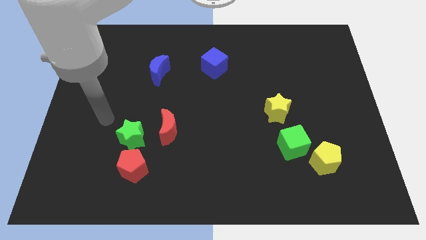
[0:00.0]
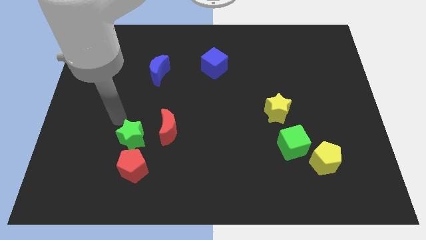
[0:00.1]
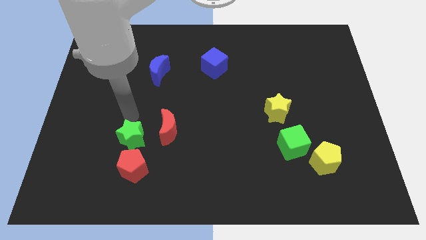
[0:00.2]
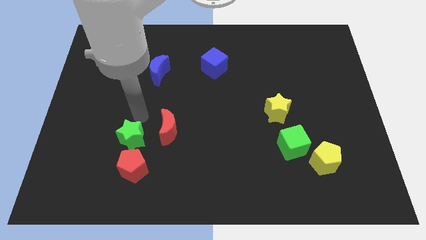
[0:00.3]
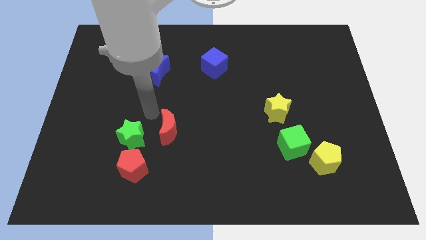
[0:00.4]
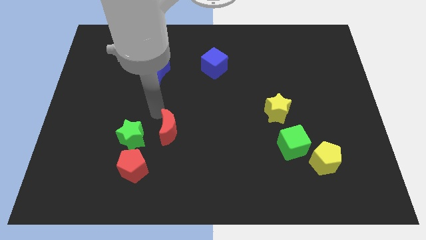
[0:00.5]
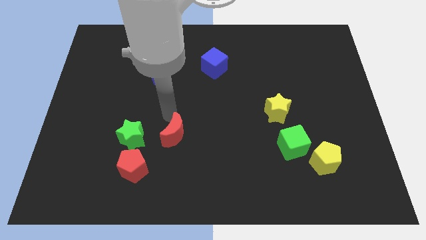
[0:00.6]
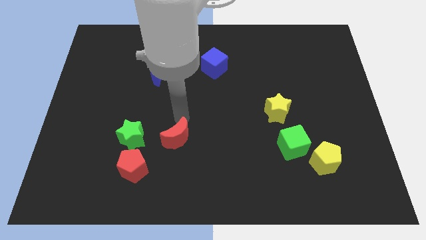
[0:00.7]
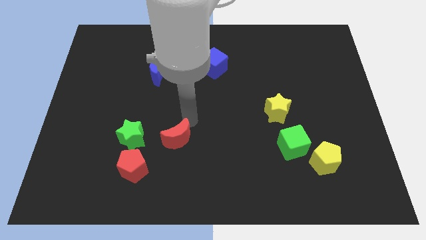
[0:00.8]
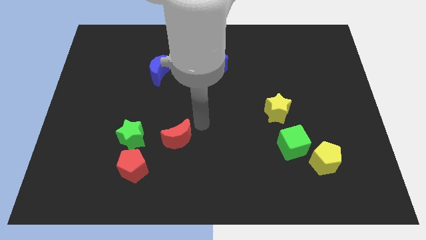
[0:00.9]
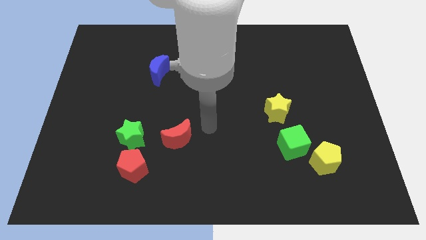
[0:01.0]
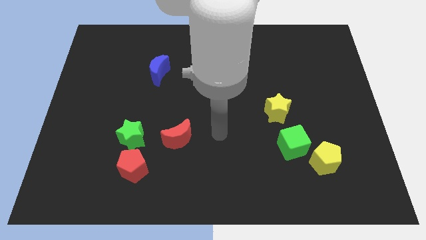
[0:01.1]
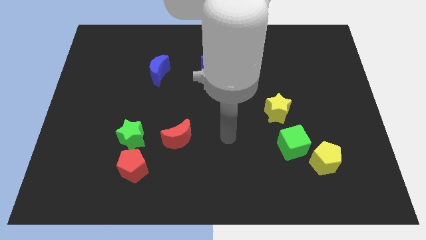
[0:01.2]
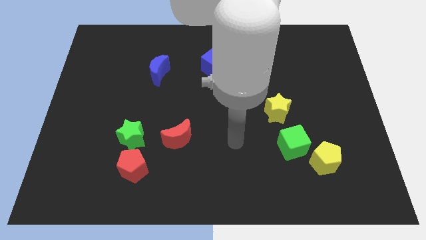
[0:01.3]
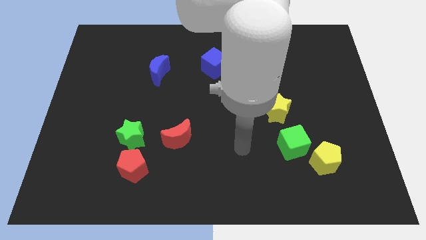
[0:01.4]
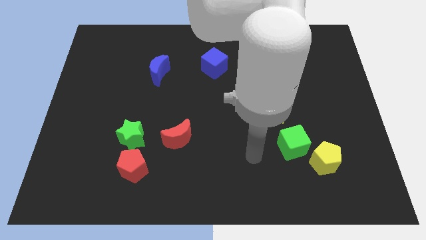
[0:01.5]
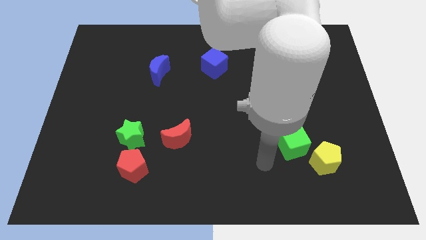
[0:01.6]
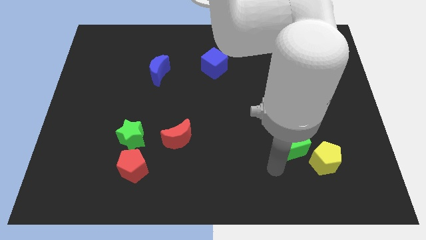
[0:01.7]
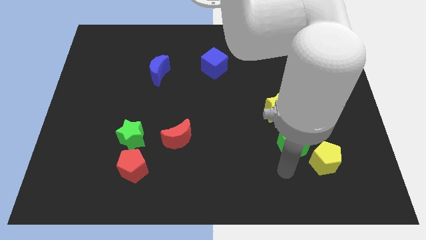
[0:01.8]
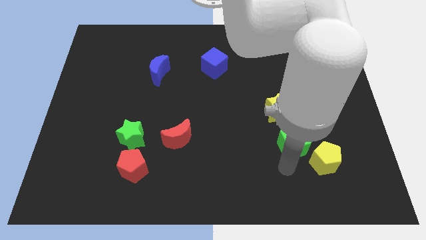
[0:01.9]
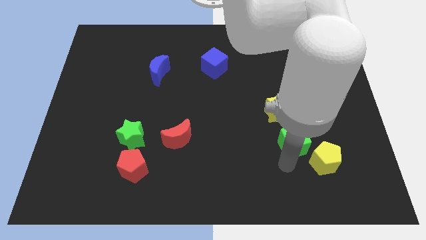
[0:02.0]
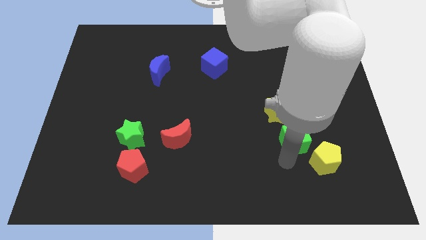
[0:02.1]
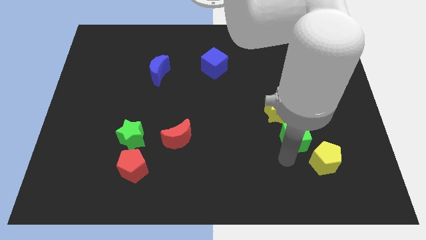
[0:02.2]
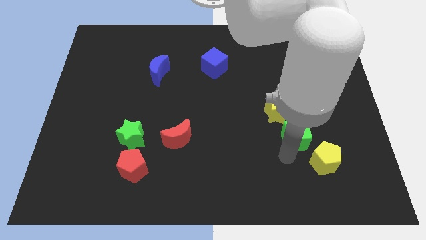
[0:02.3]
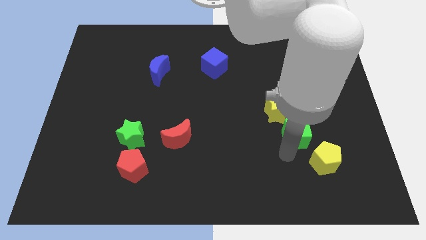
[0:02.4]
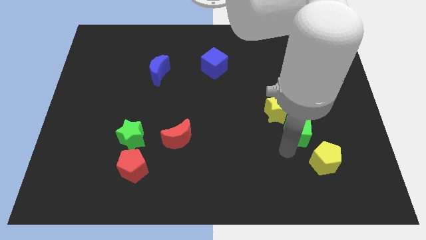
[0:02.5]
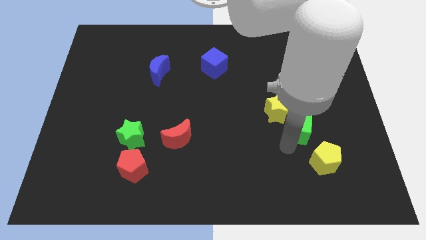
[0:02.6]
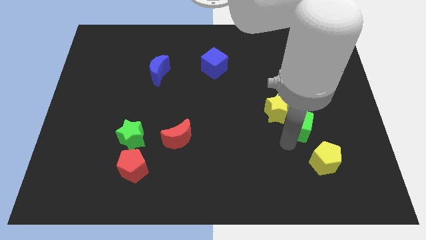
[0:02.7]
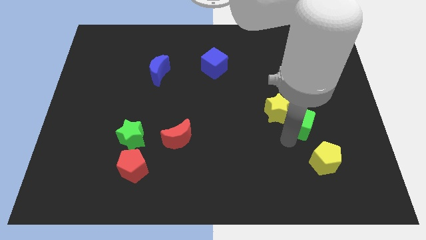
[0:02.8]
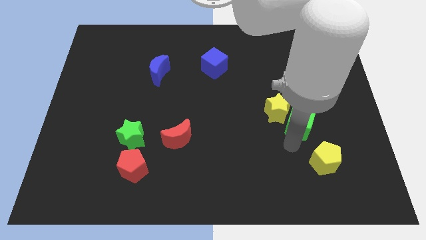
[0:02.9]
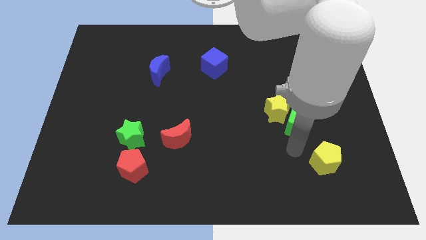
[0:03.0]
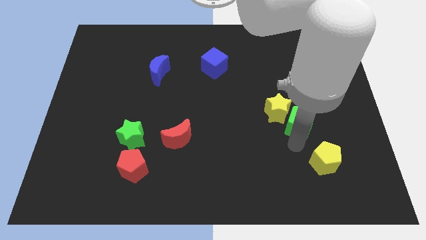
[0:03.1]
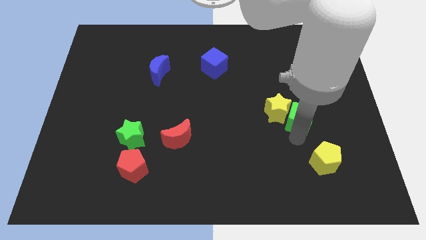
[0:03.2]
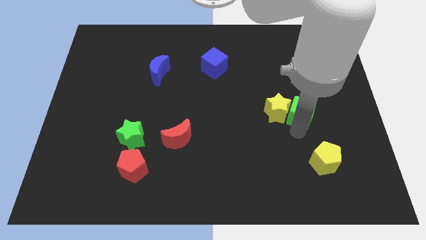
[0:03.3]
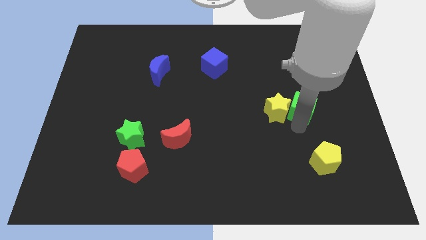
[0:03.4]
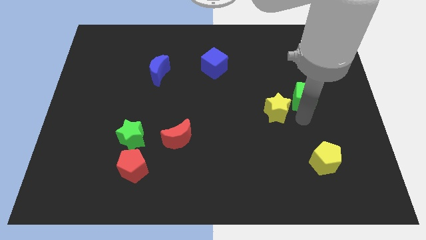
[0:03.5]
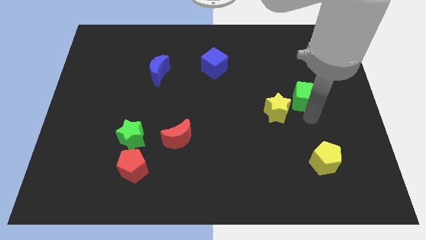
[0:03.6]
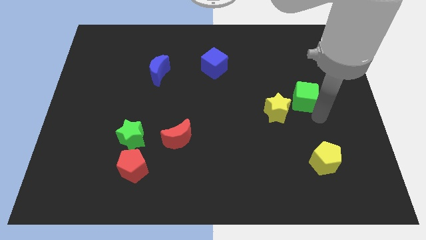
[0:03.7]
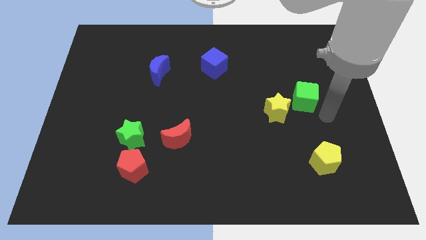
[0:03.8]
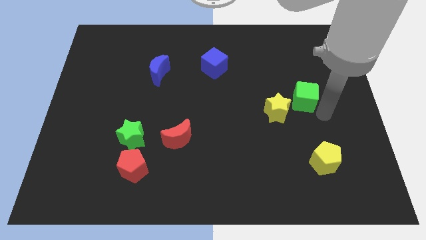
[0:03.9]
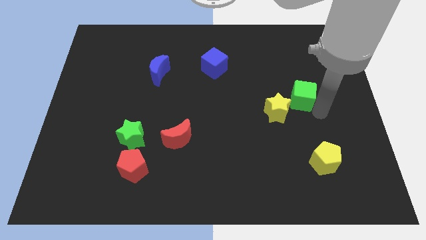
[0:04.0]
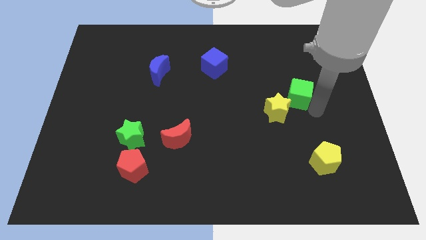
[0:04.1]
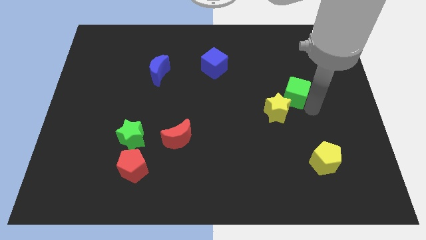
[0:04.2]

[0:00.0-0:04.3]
slide the green cube to the top of the yellow star

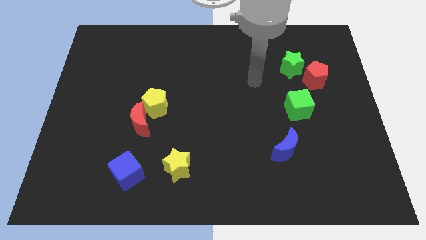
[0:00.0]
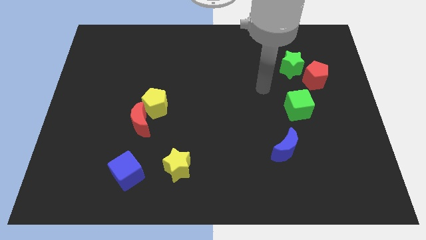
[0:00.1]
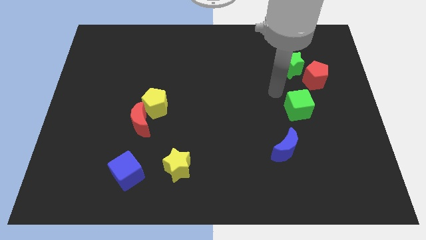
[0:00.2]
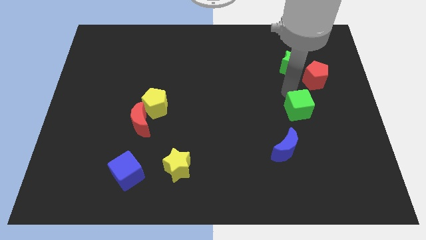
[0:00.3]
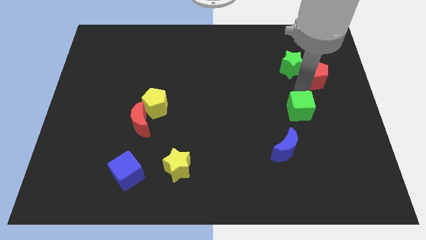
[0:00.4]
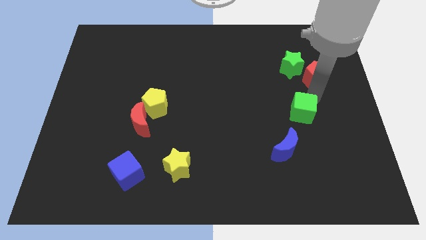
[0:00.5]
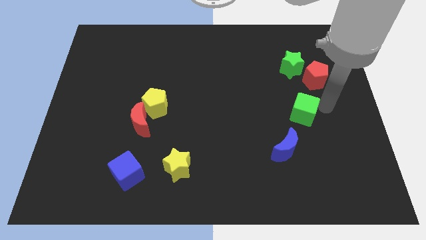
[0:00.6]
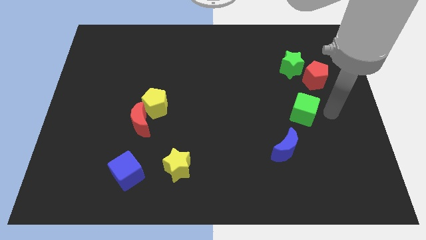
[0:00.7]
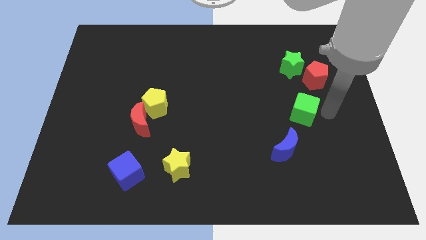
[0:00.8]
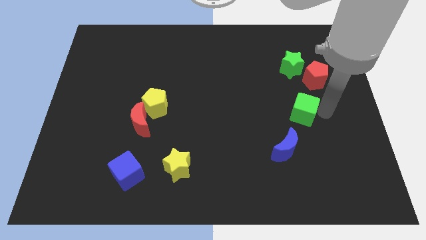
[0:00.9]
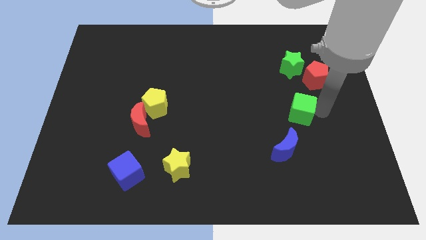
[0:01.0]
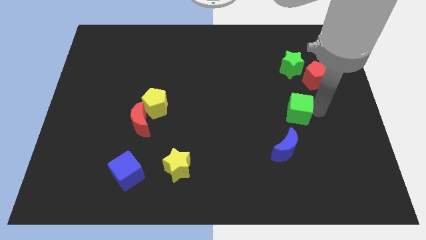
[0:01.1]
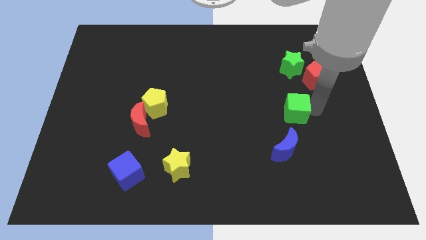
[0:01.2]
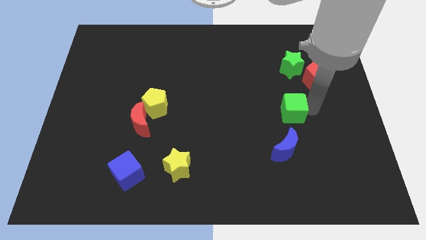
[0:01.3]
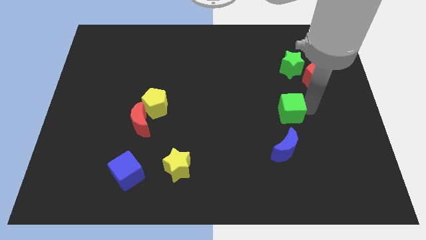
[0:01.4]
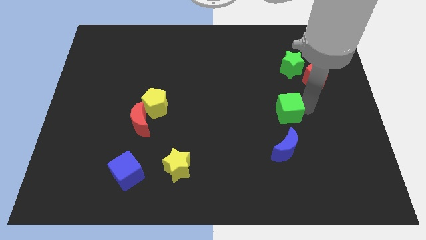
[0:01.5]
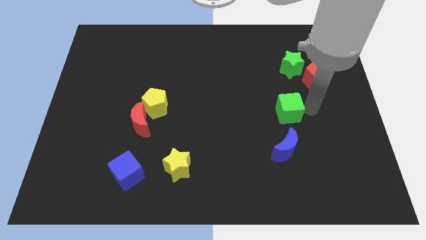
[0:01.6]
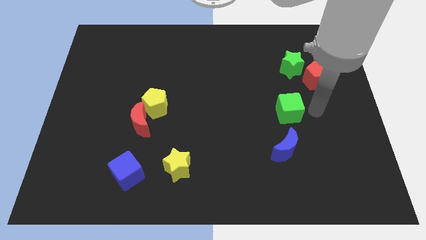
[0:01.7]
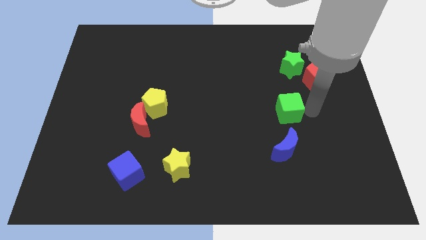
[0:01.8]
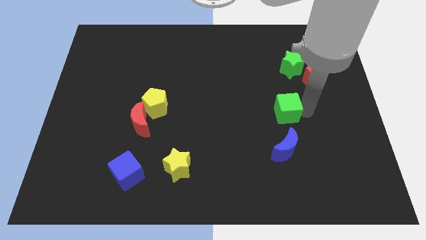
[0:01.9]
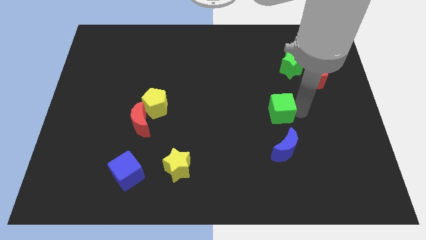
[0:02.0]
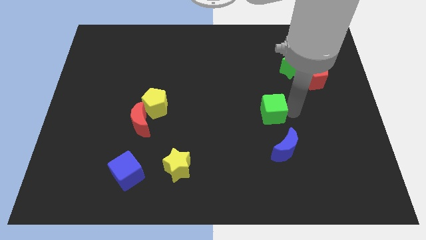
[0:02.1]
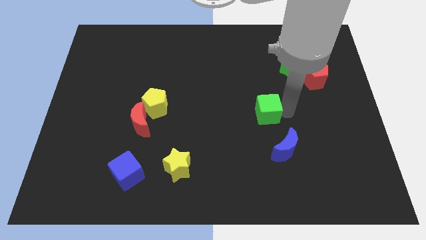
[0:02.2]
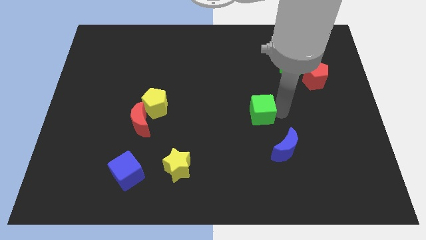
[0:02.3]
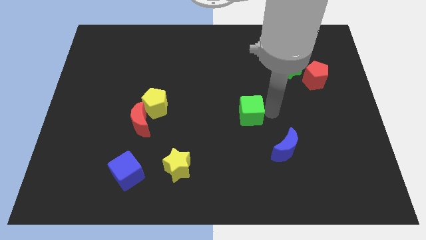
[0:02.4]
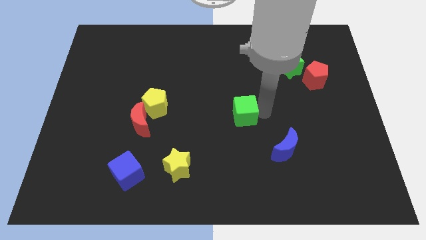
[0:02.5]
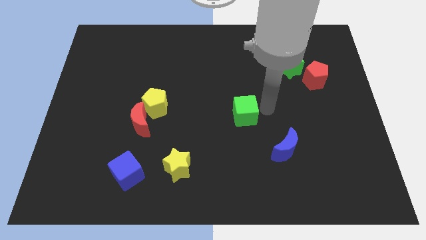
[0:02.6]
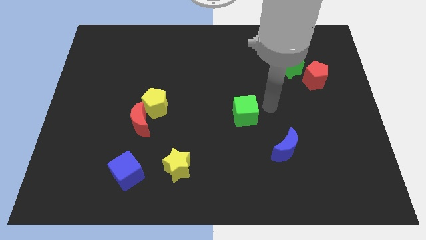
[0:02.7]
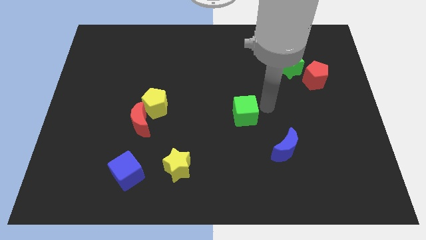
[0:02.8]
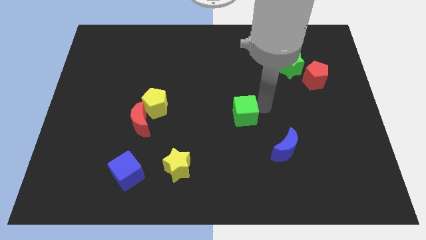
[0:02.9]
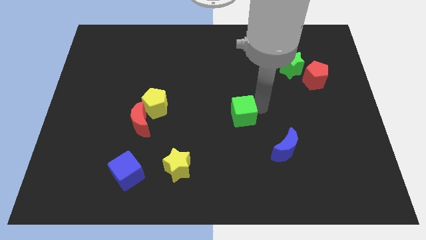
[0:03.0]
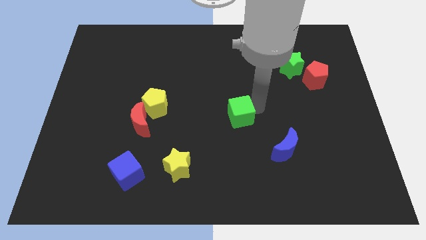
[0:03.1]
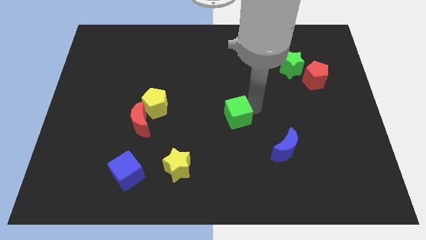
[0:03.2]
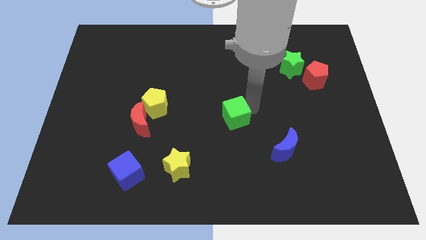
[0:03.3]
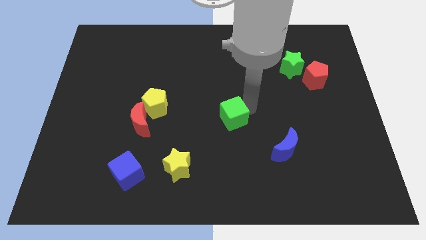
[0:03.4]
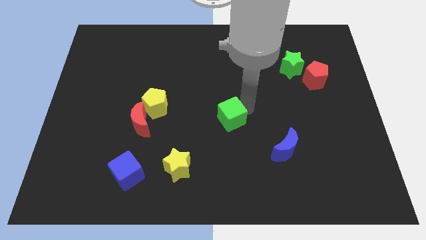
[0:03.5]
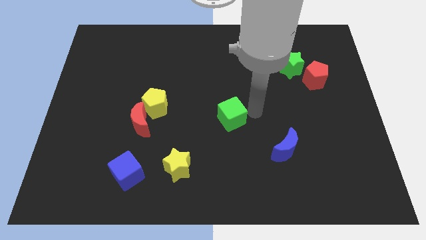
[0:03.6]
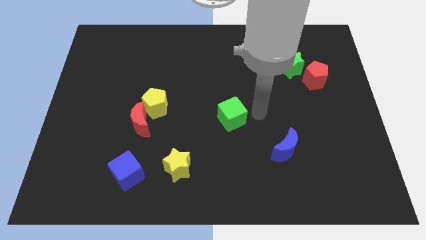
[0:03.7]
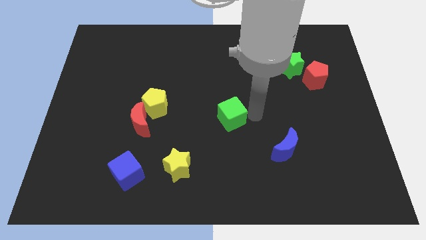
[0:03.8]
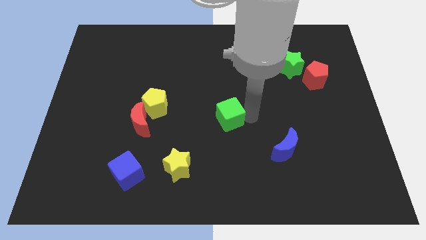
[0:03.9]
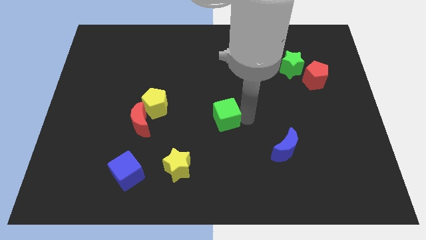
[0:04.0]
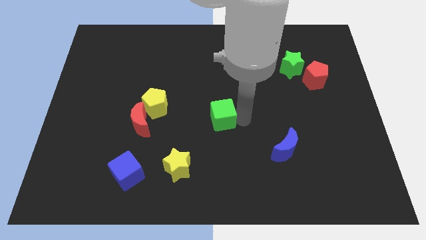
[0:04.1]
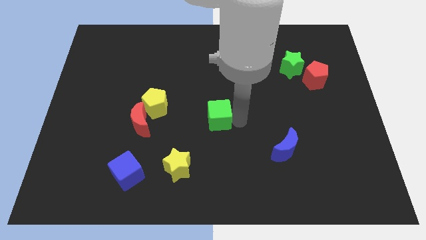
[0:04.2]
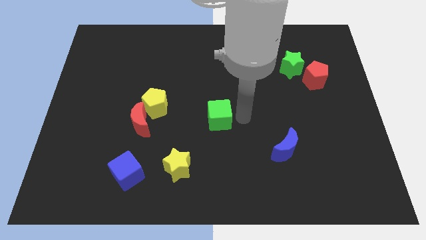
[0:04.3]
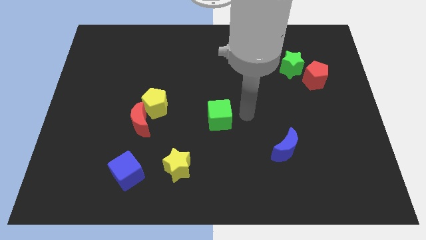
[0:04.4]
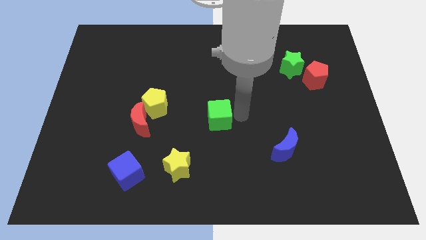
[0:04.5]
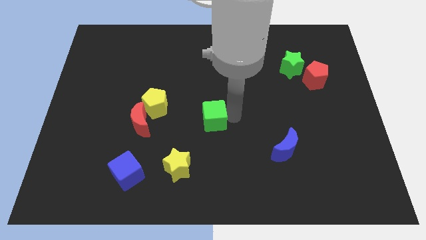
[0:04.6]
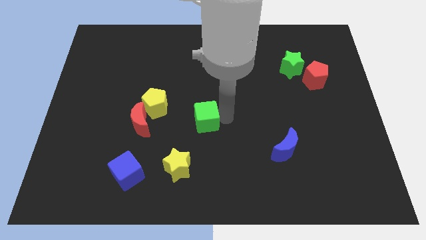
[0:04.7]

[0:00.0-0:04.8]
slide the green cube just right of the red moon
